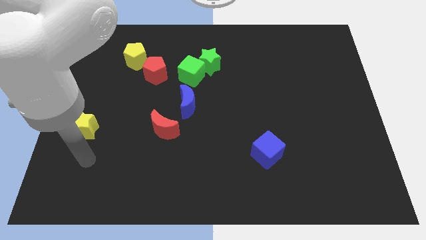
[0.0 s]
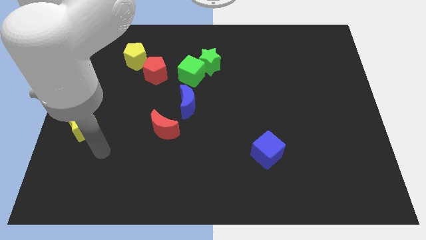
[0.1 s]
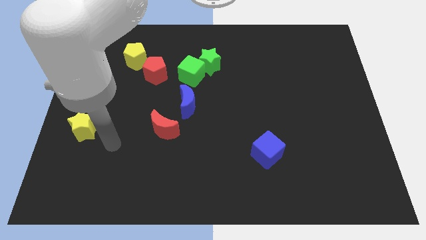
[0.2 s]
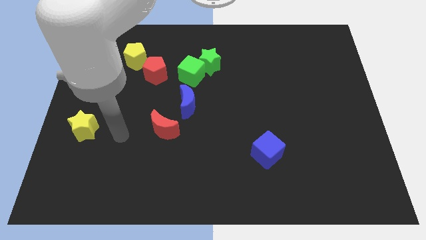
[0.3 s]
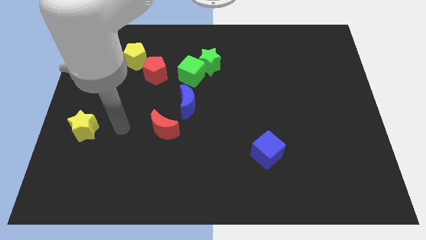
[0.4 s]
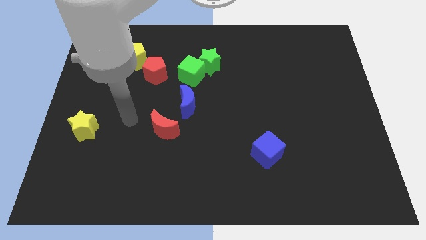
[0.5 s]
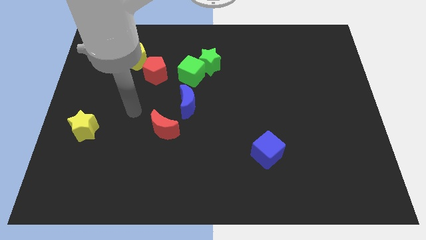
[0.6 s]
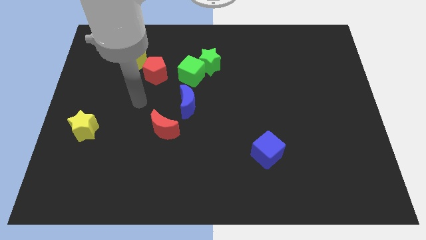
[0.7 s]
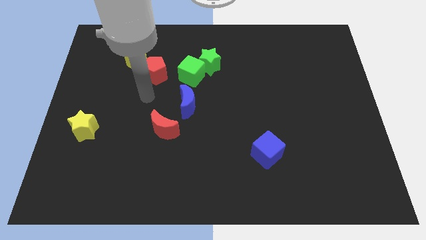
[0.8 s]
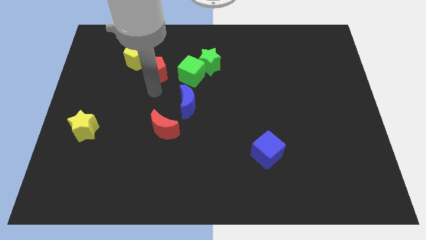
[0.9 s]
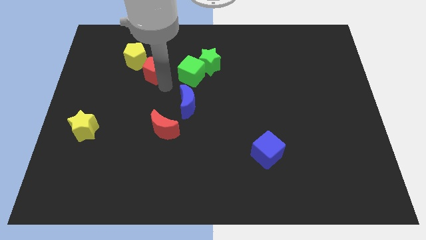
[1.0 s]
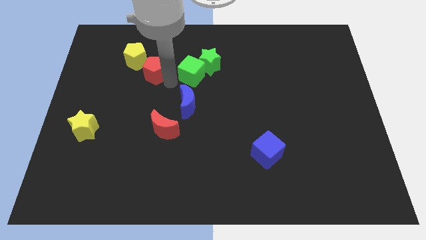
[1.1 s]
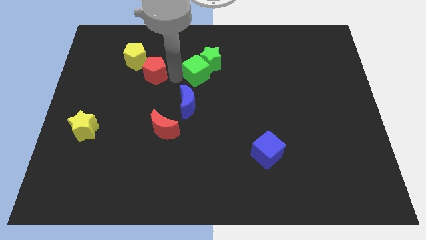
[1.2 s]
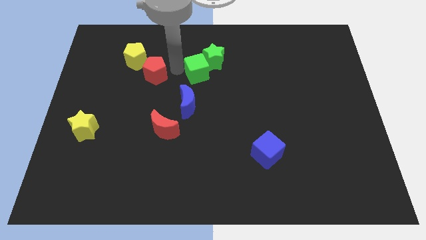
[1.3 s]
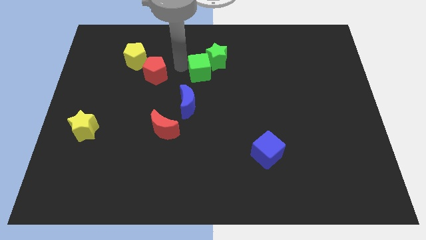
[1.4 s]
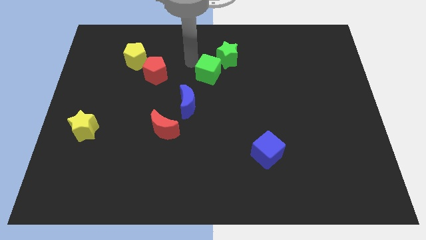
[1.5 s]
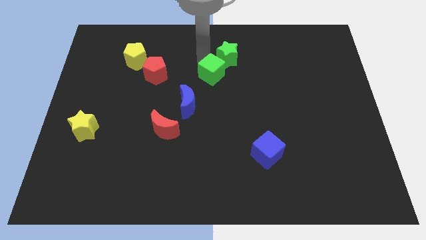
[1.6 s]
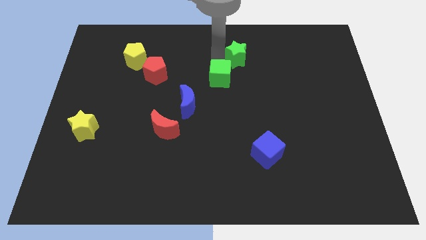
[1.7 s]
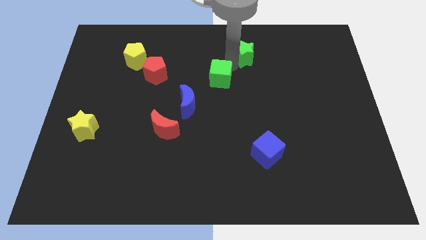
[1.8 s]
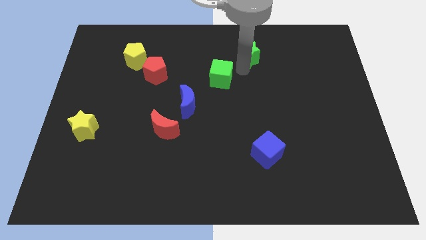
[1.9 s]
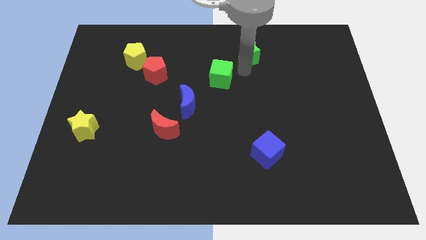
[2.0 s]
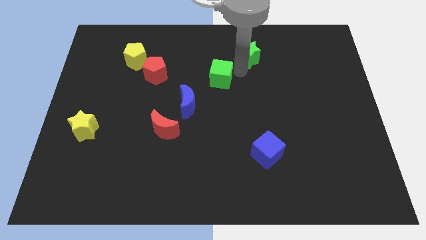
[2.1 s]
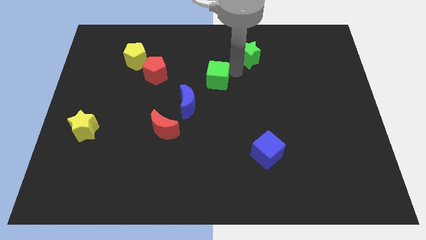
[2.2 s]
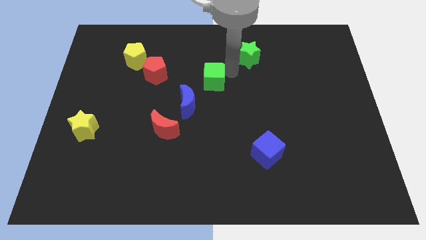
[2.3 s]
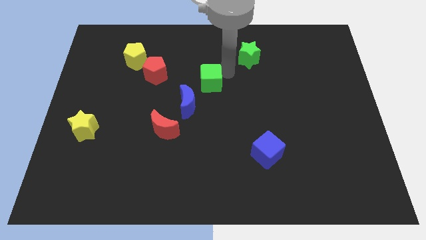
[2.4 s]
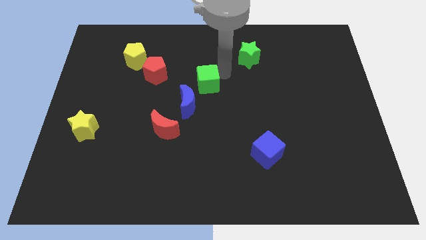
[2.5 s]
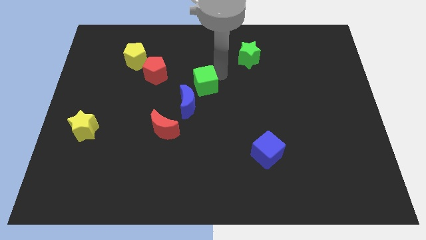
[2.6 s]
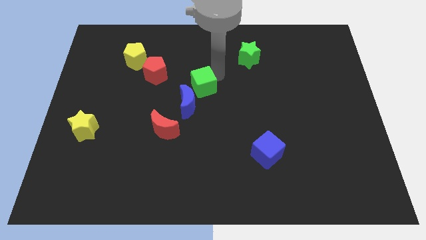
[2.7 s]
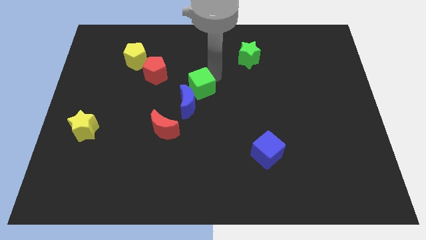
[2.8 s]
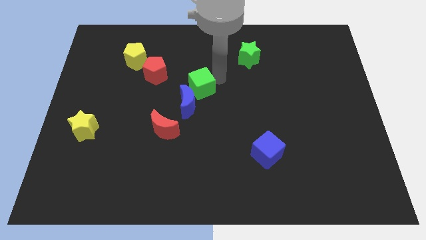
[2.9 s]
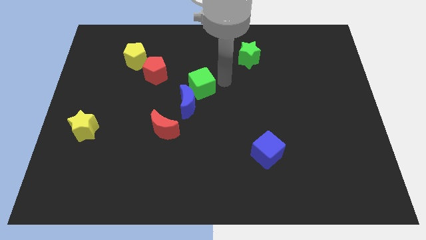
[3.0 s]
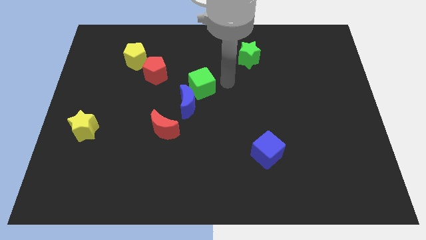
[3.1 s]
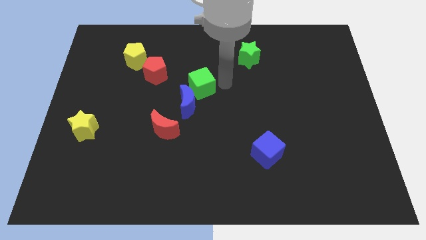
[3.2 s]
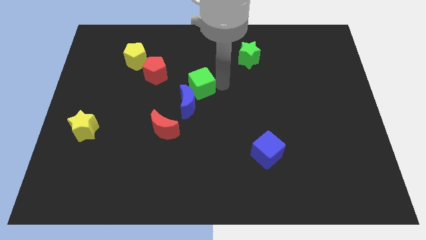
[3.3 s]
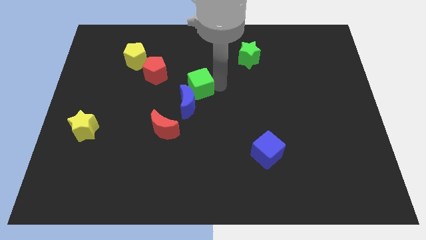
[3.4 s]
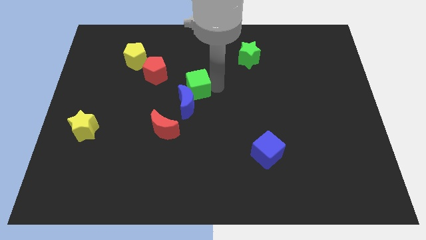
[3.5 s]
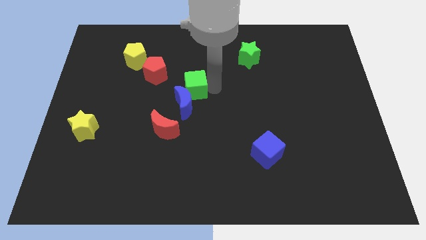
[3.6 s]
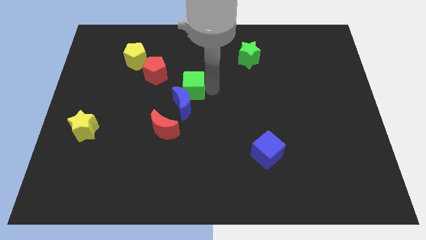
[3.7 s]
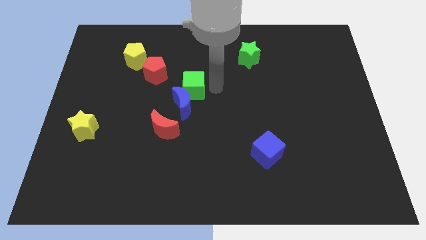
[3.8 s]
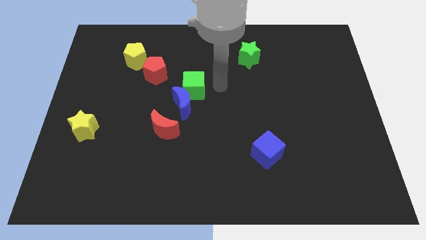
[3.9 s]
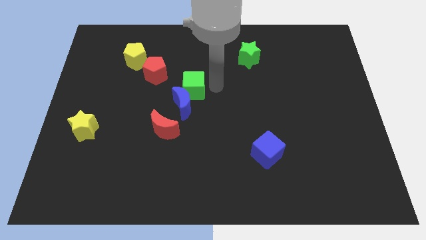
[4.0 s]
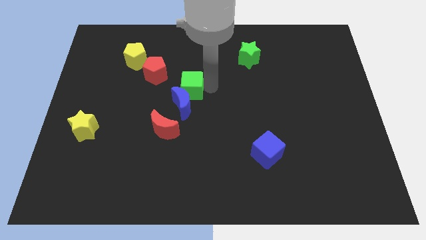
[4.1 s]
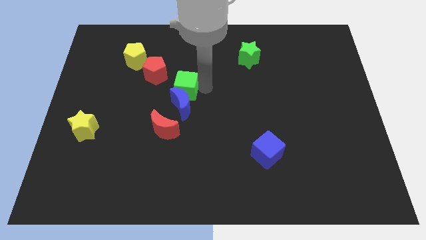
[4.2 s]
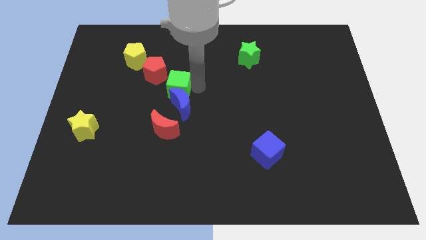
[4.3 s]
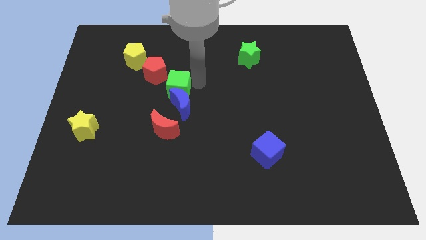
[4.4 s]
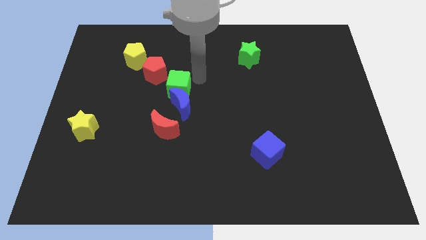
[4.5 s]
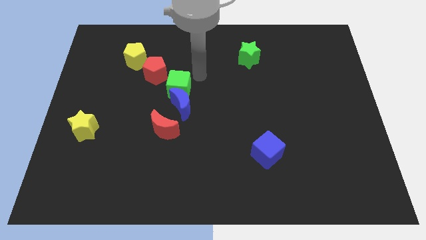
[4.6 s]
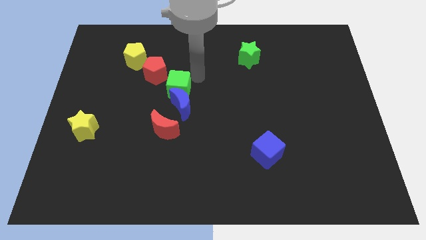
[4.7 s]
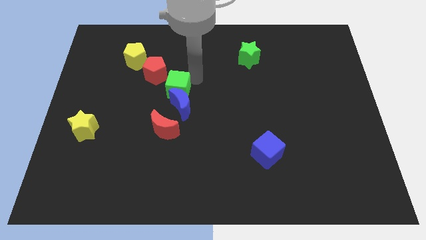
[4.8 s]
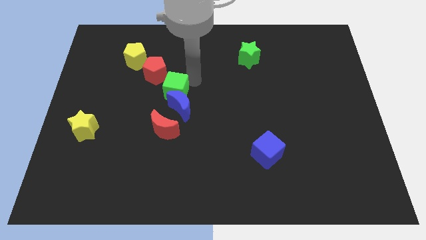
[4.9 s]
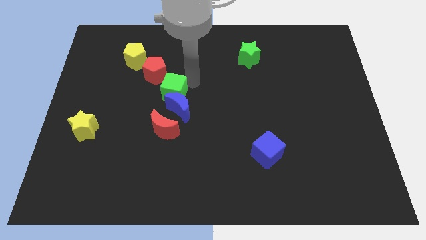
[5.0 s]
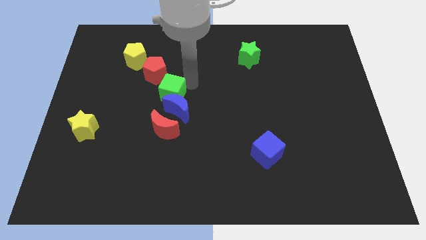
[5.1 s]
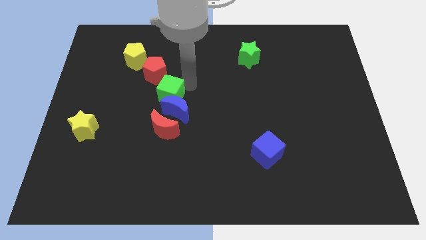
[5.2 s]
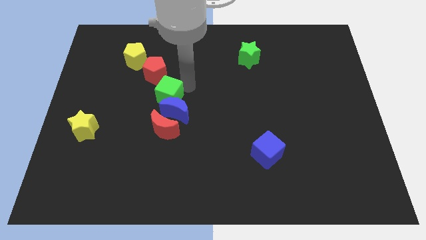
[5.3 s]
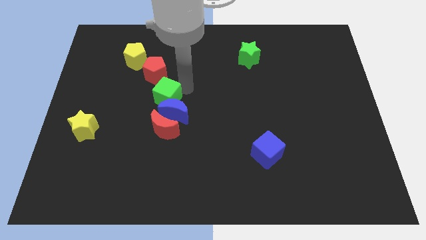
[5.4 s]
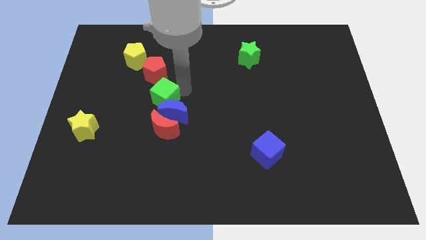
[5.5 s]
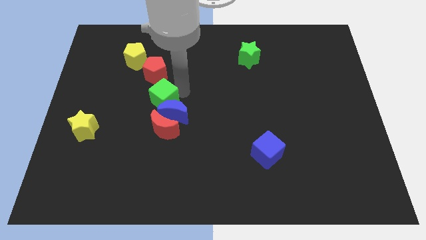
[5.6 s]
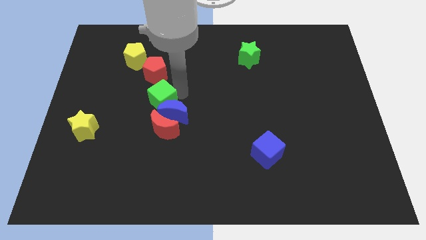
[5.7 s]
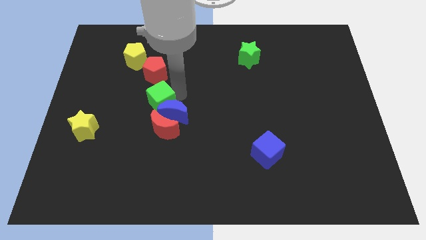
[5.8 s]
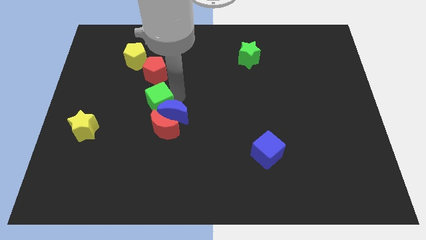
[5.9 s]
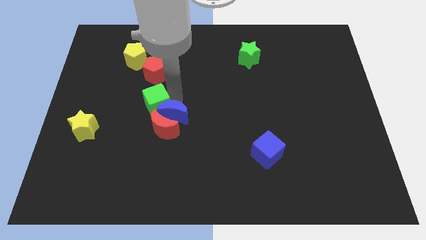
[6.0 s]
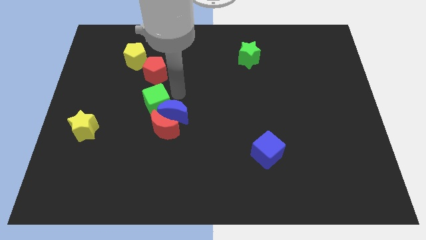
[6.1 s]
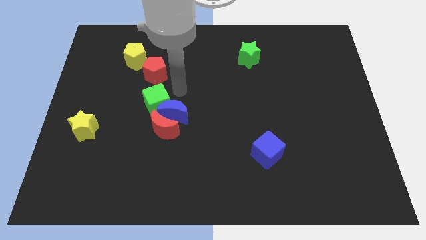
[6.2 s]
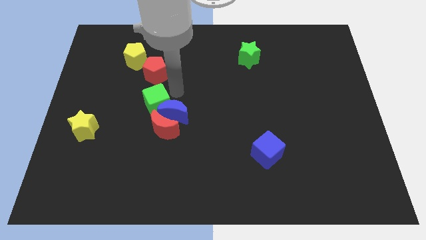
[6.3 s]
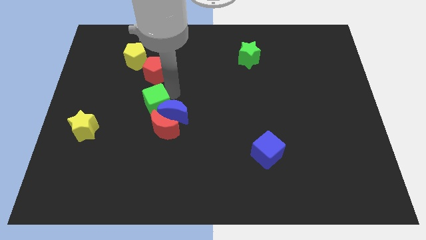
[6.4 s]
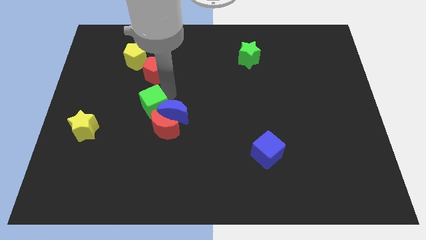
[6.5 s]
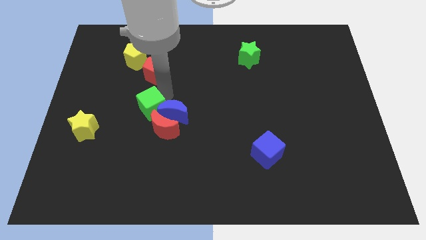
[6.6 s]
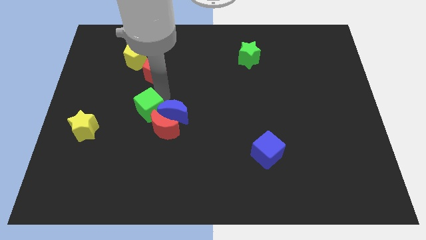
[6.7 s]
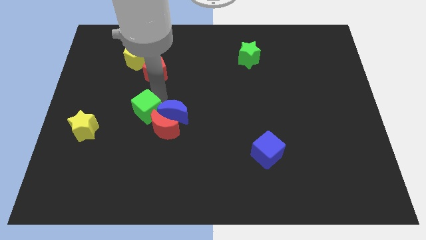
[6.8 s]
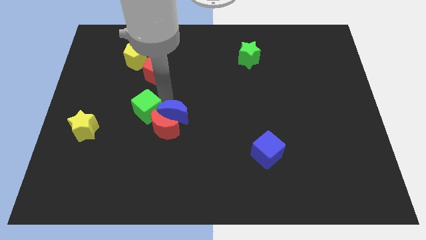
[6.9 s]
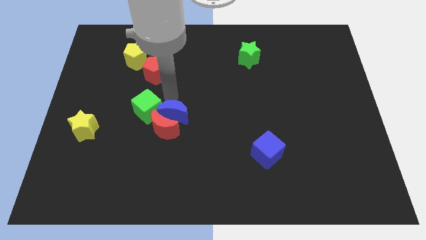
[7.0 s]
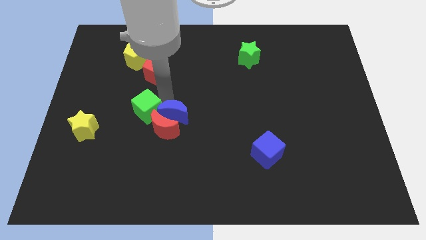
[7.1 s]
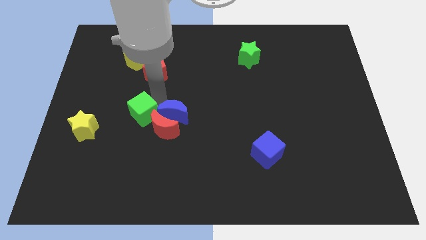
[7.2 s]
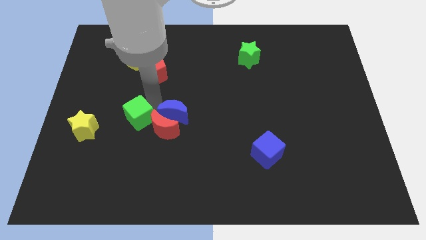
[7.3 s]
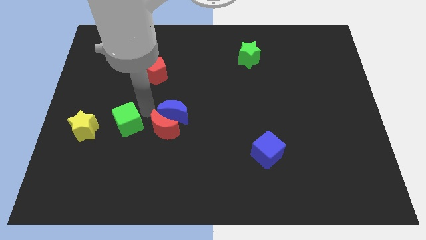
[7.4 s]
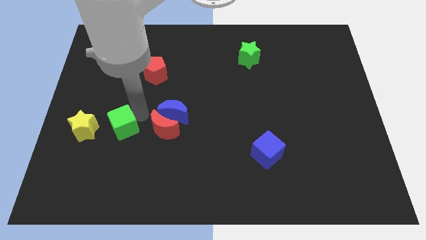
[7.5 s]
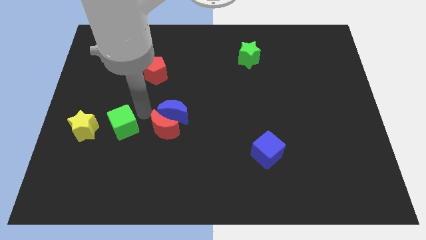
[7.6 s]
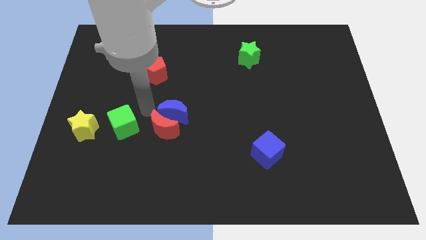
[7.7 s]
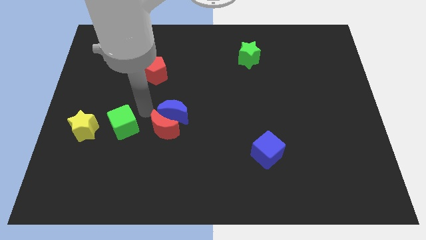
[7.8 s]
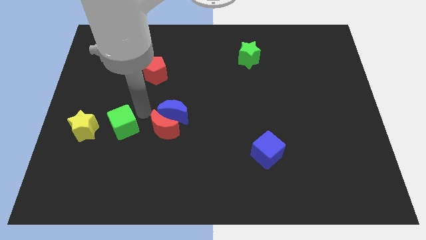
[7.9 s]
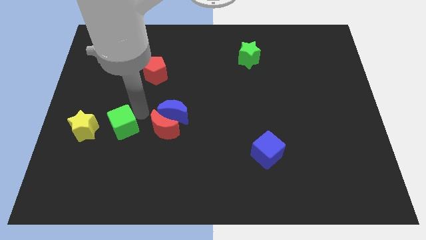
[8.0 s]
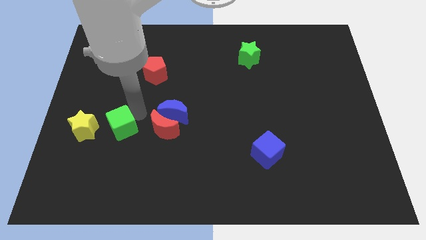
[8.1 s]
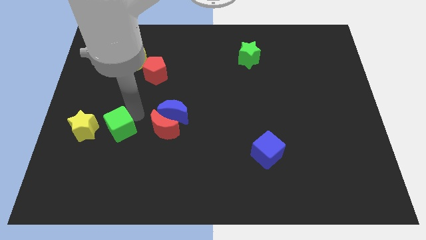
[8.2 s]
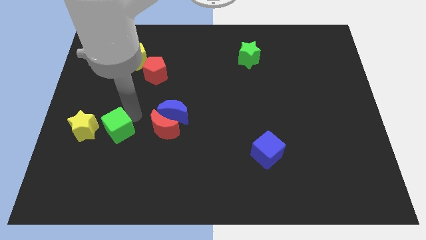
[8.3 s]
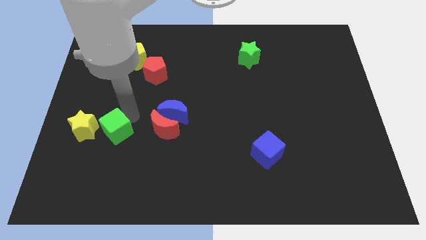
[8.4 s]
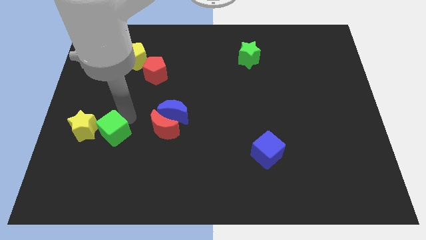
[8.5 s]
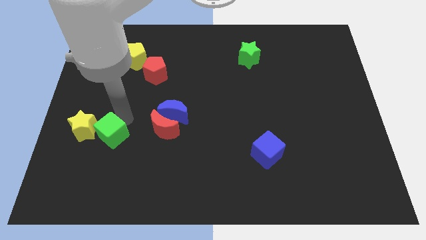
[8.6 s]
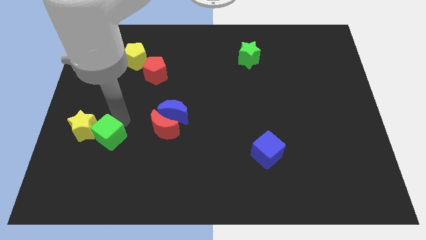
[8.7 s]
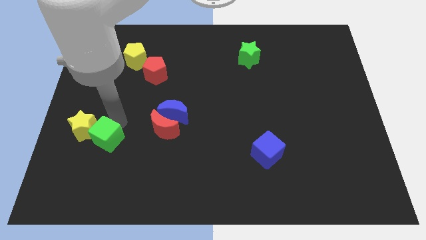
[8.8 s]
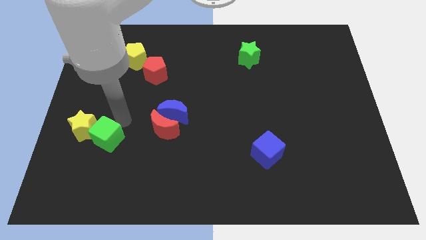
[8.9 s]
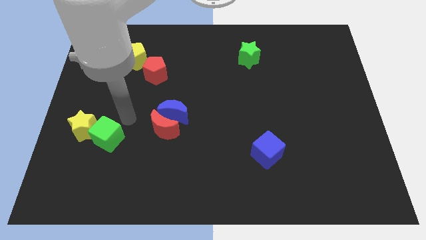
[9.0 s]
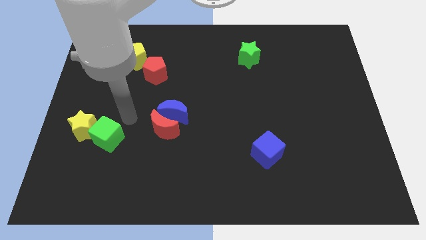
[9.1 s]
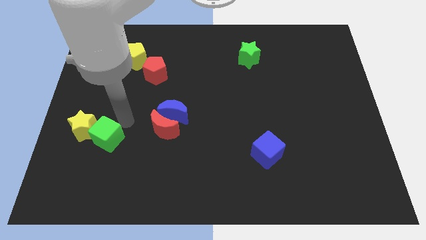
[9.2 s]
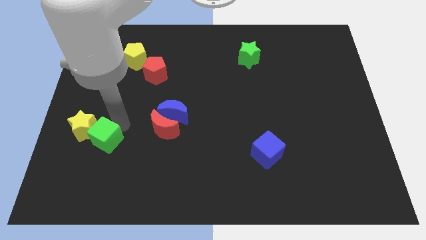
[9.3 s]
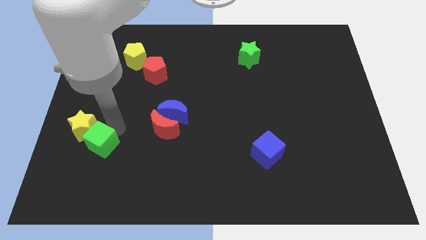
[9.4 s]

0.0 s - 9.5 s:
move the green cube to the bottom side of the yellow star
